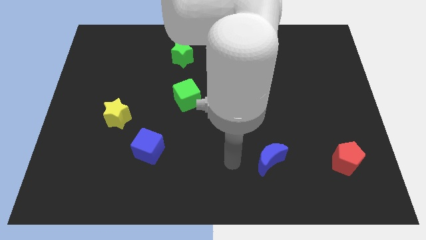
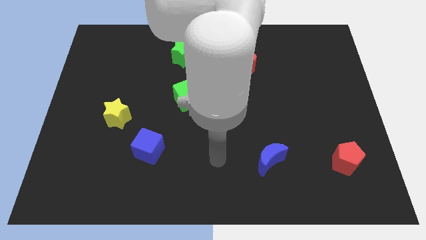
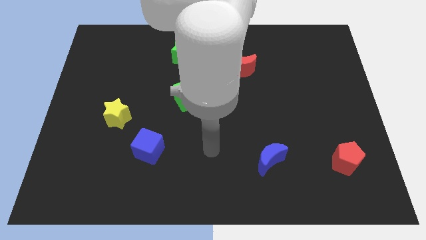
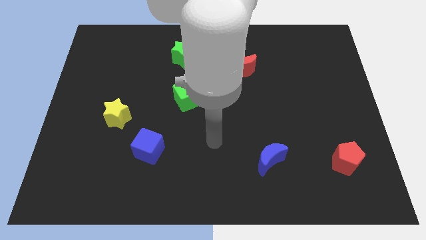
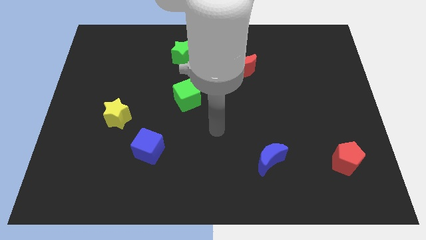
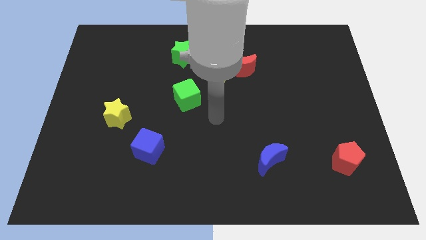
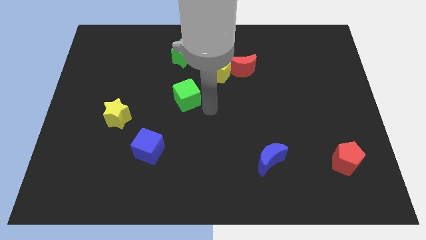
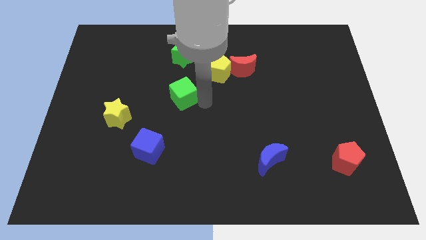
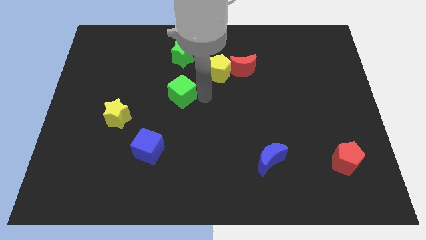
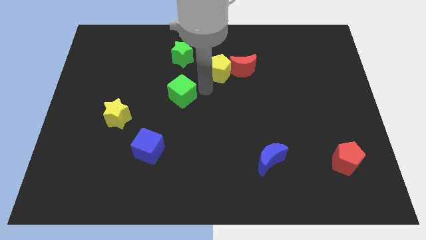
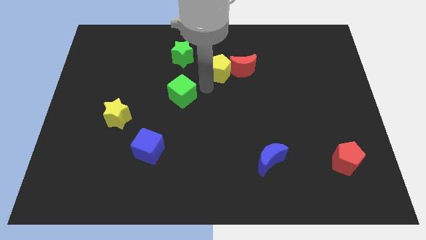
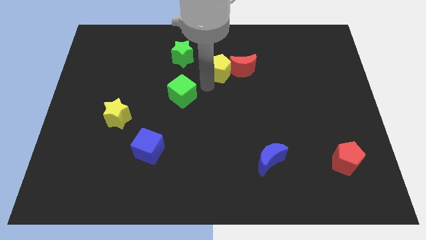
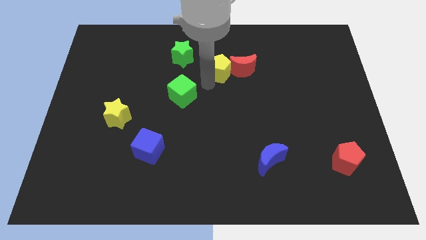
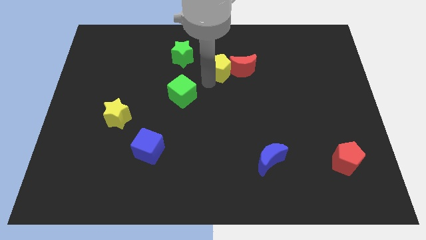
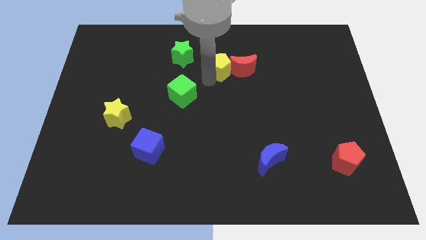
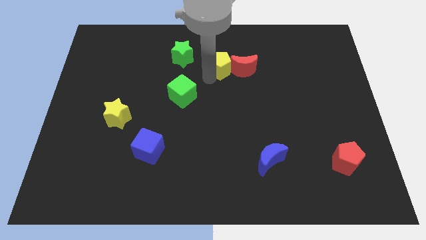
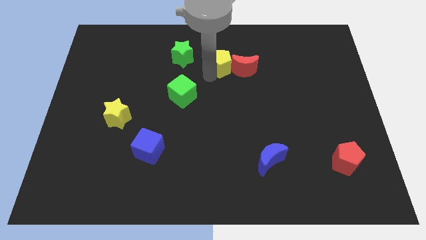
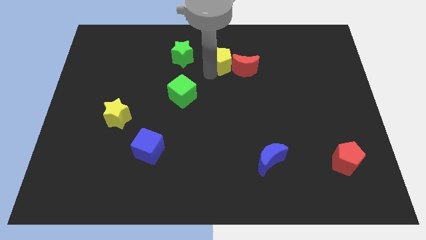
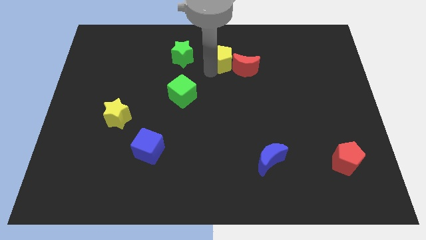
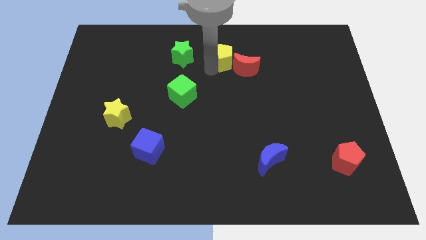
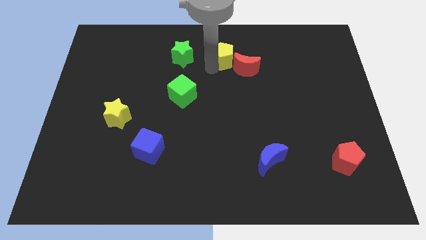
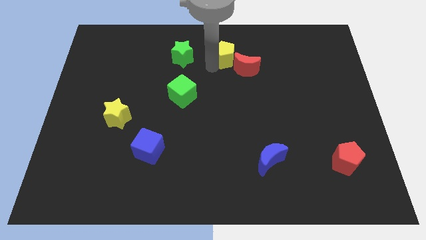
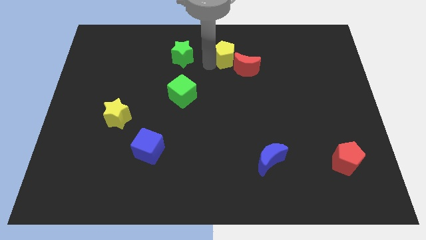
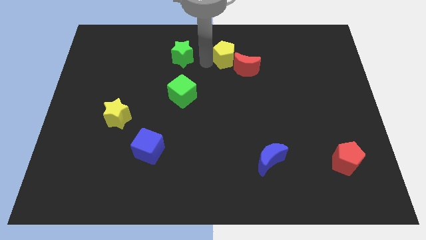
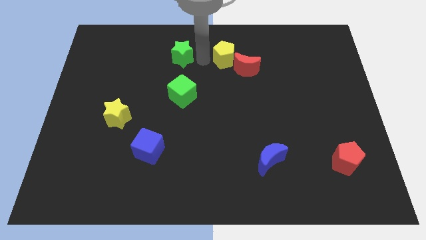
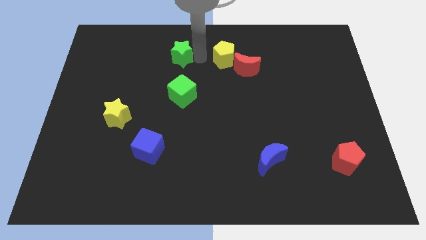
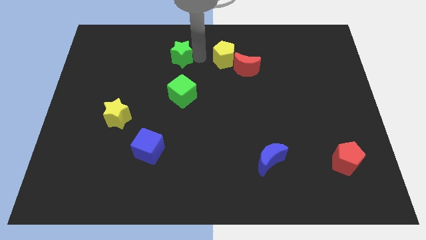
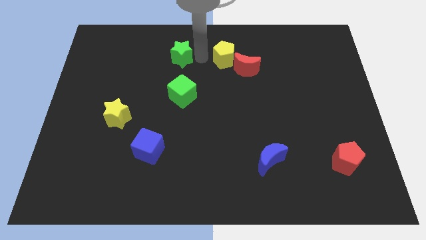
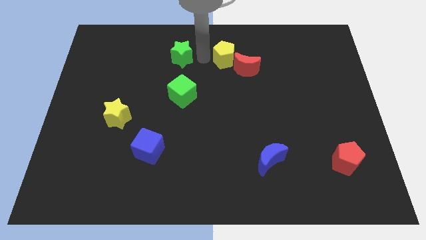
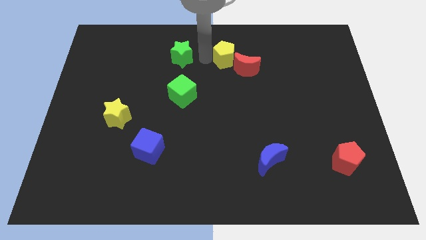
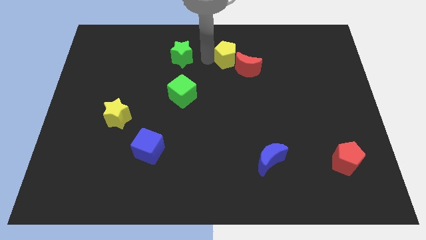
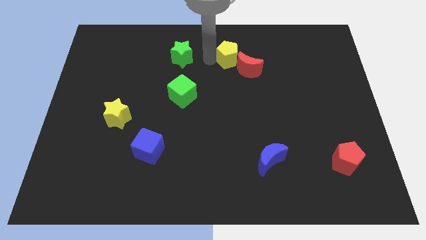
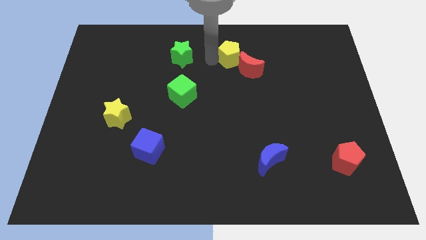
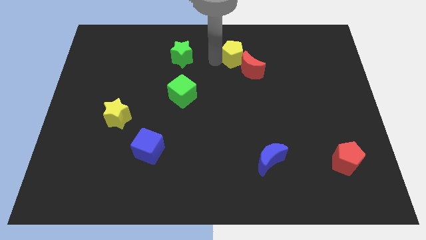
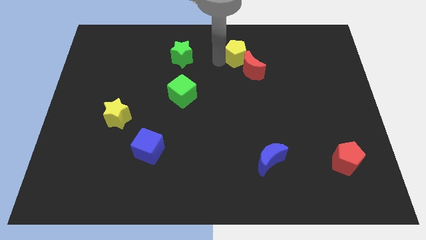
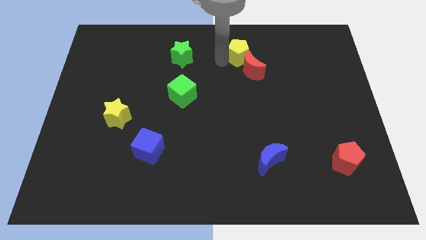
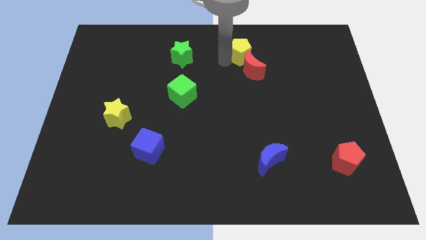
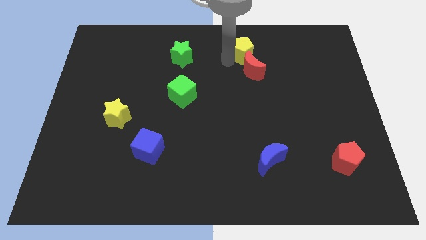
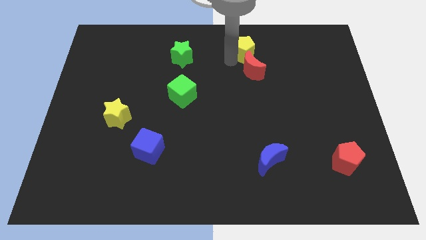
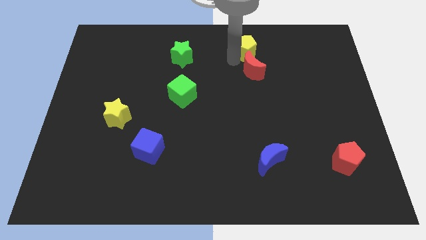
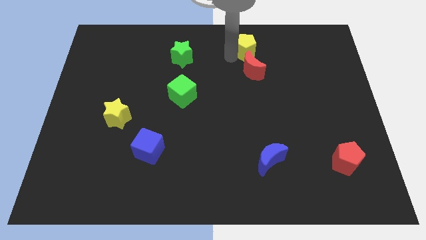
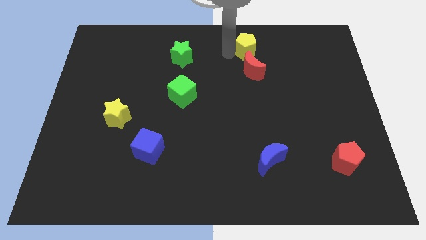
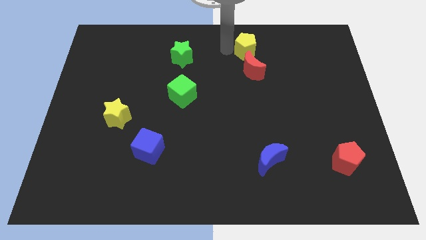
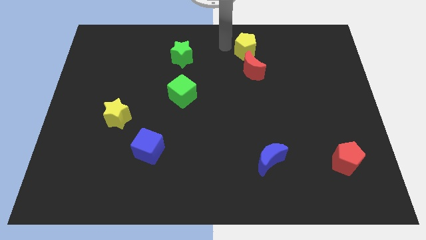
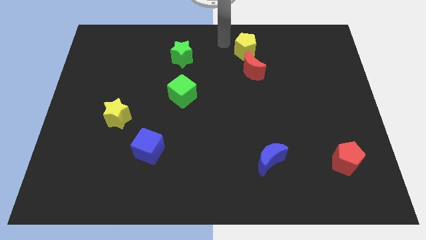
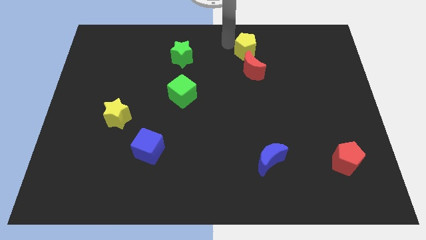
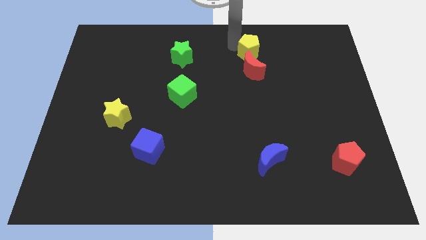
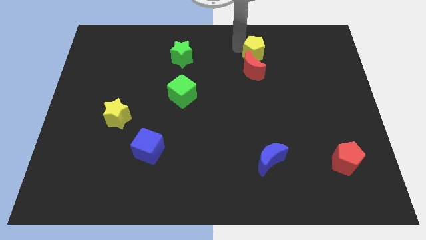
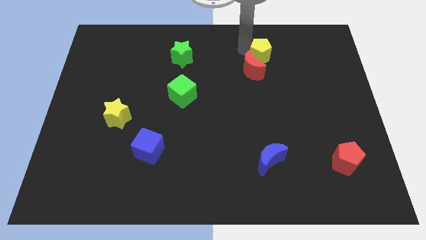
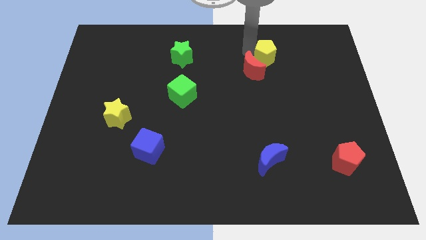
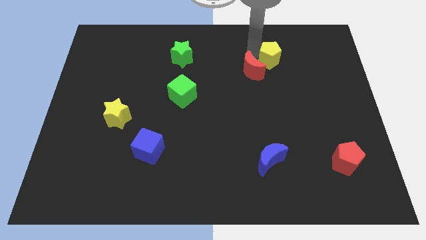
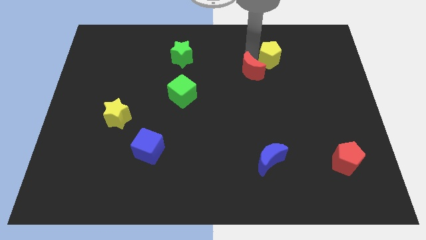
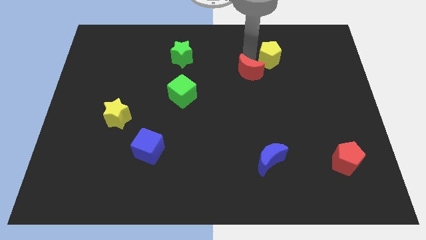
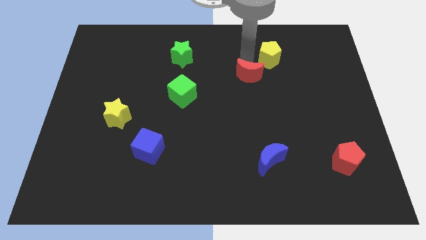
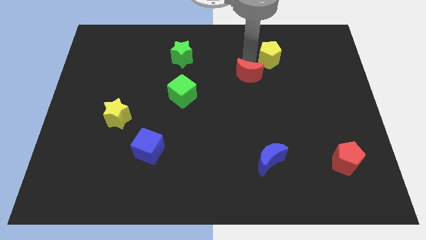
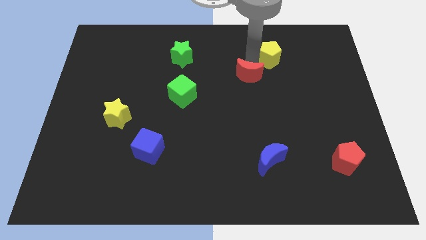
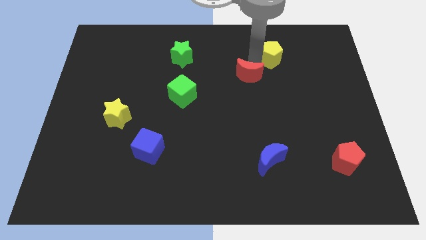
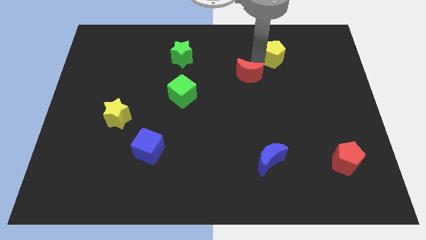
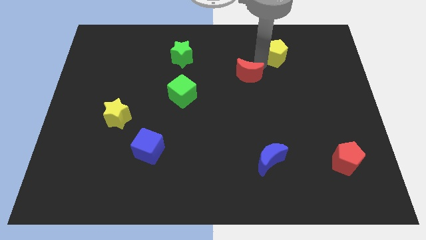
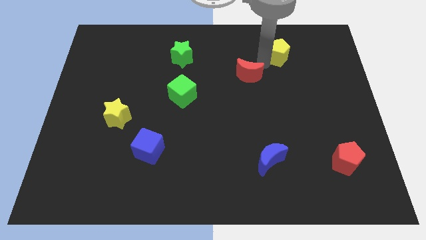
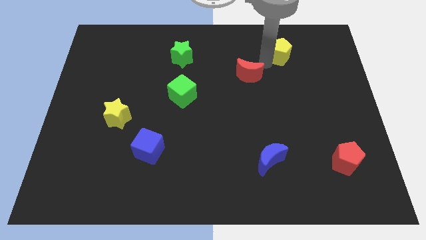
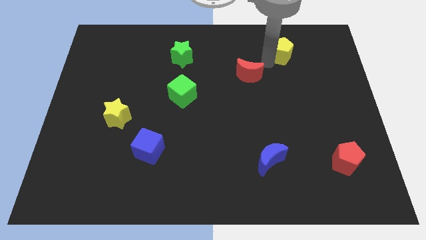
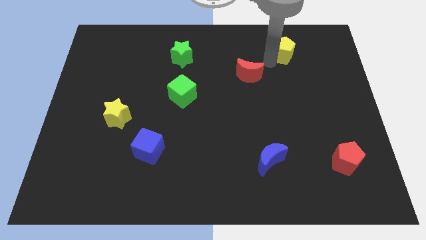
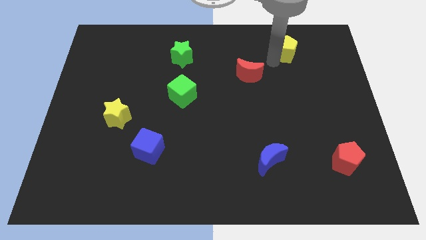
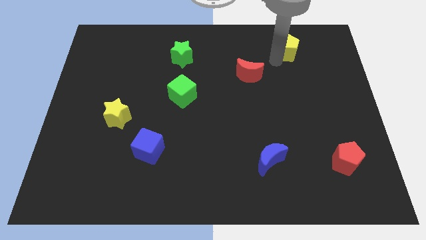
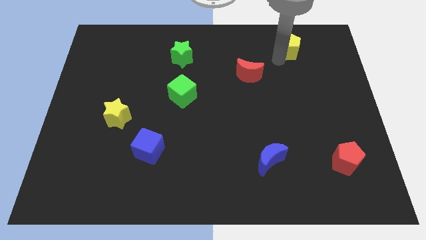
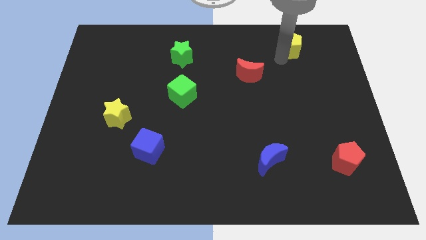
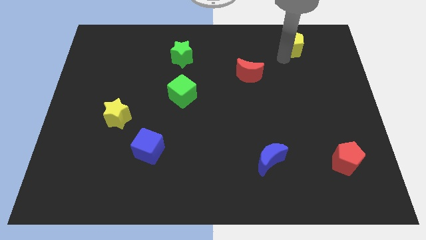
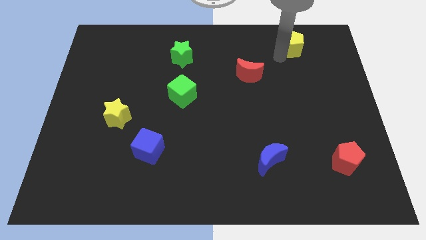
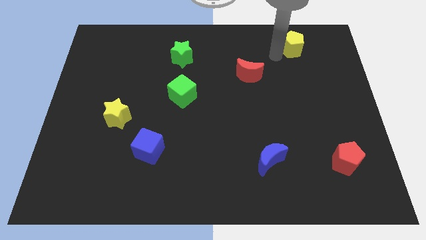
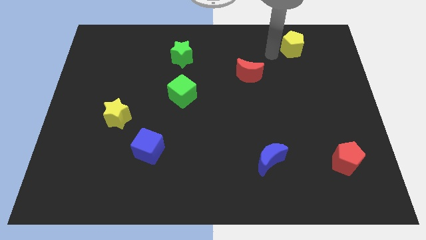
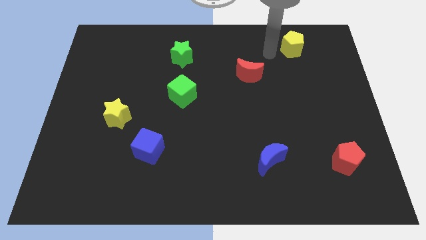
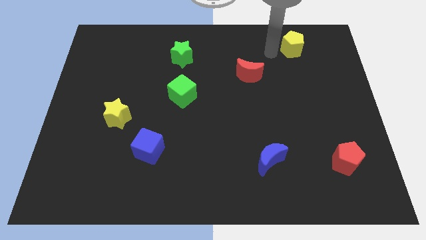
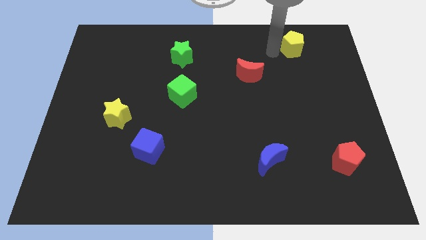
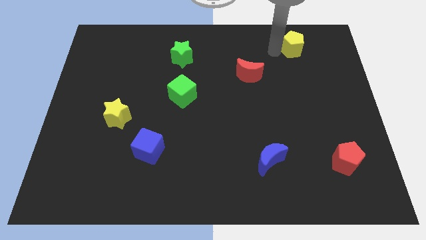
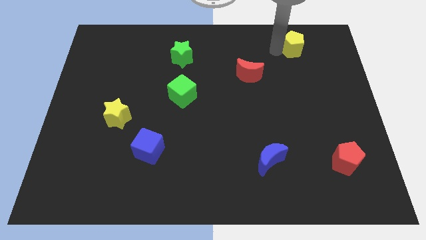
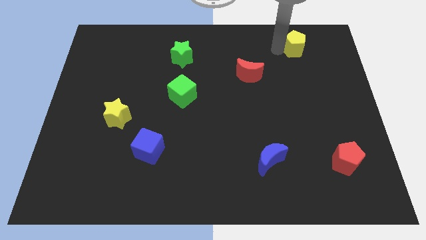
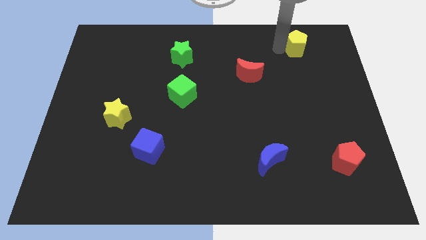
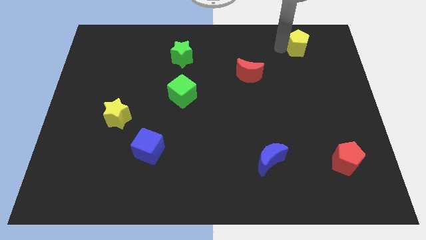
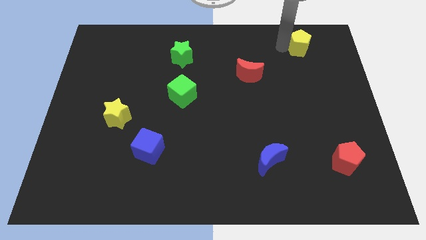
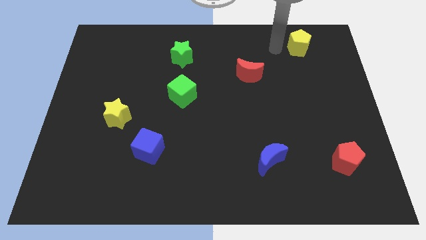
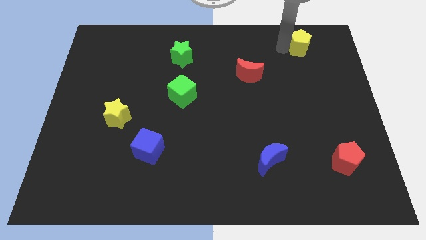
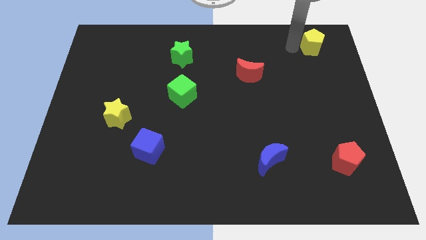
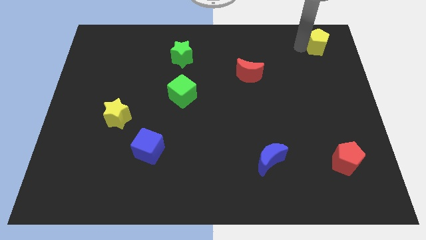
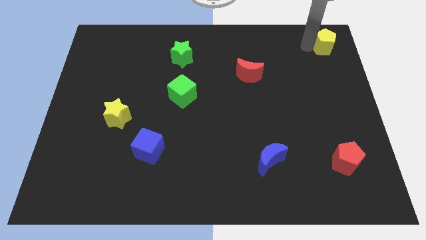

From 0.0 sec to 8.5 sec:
slide the yellow pentagon to the upper right corner
